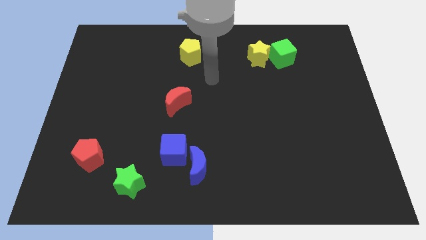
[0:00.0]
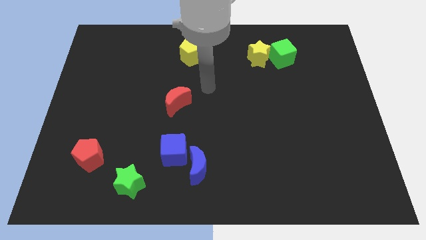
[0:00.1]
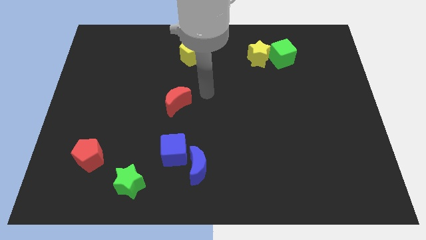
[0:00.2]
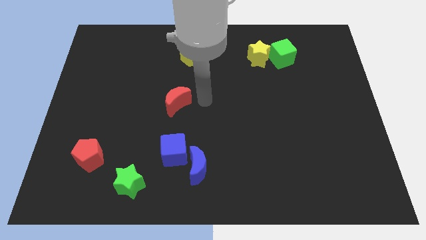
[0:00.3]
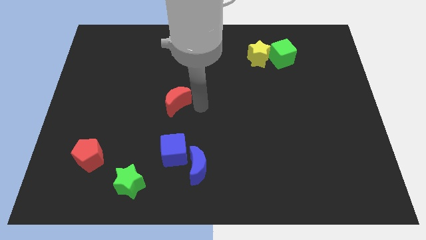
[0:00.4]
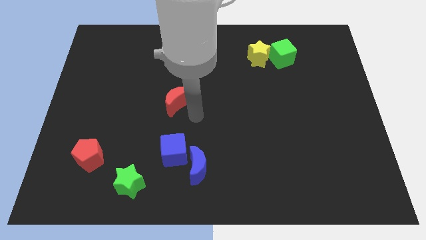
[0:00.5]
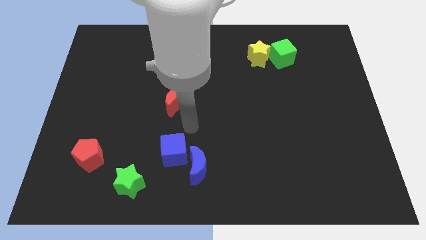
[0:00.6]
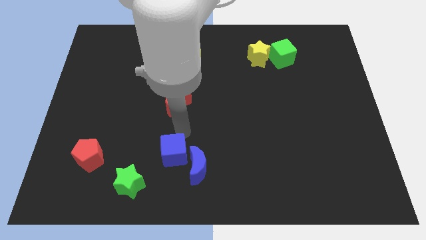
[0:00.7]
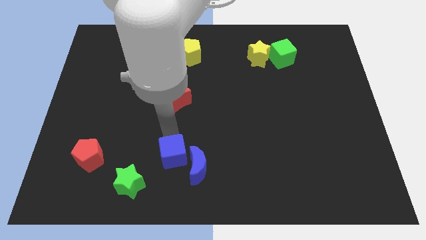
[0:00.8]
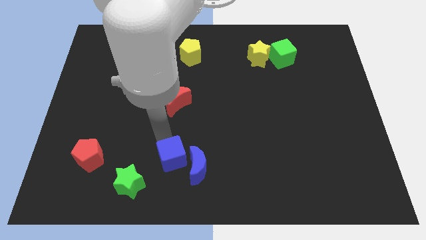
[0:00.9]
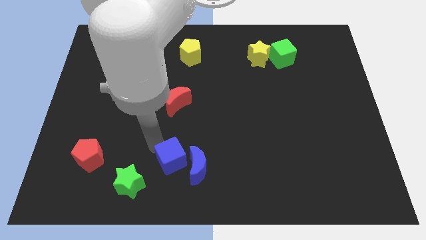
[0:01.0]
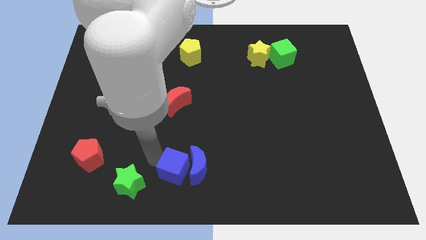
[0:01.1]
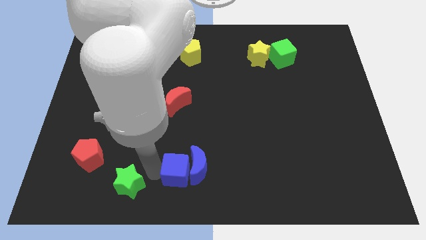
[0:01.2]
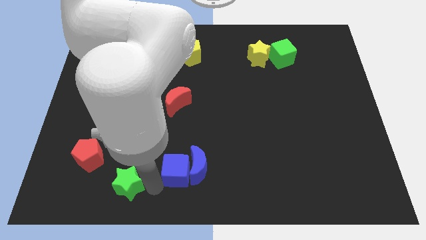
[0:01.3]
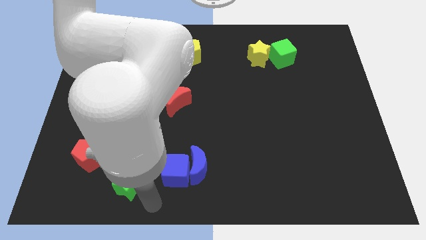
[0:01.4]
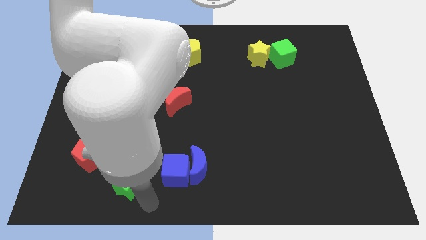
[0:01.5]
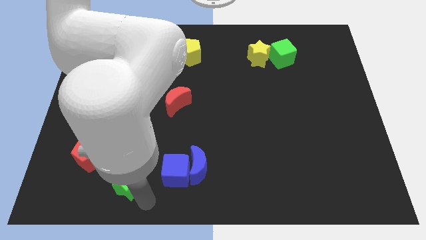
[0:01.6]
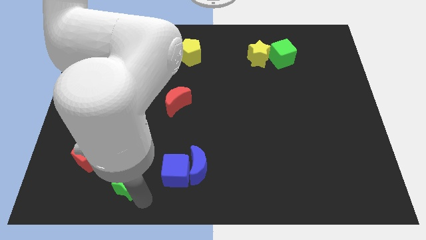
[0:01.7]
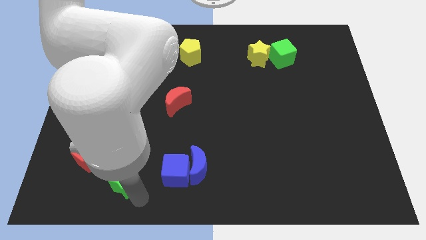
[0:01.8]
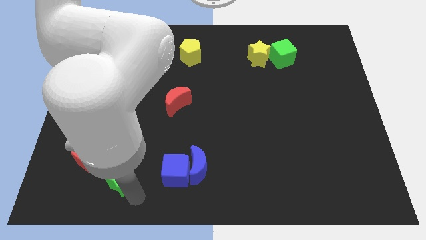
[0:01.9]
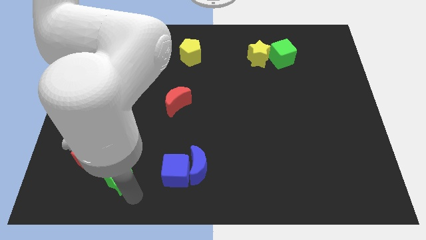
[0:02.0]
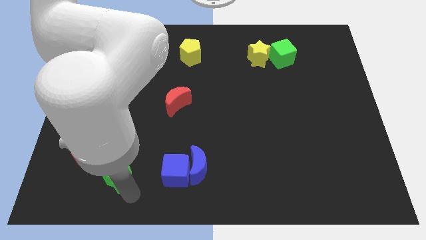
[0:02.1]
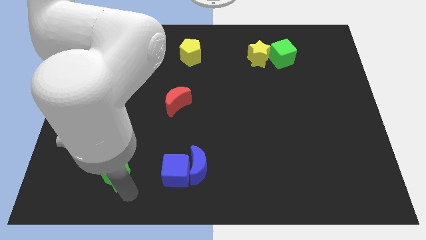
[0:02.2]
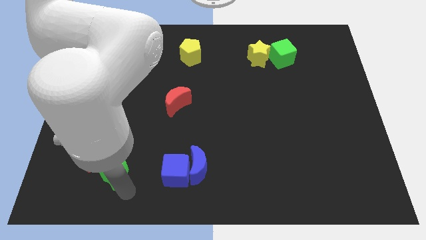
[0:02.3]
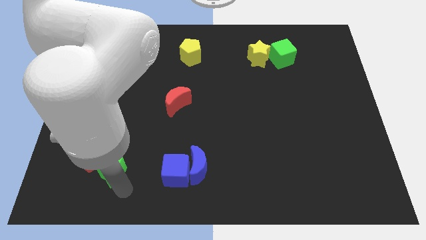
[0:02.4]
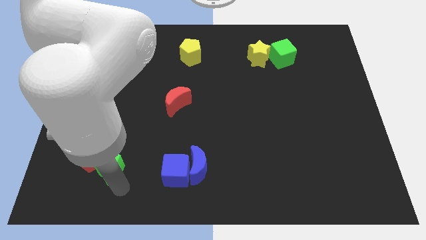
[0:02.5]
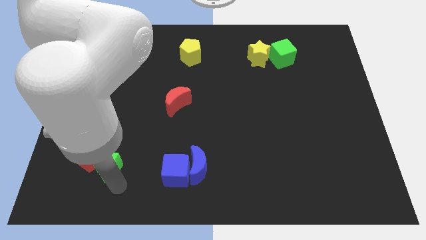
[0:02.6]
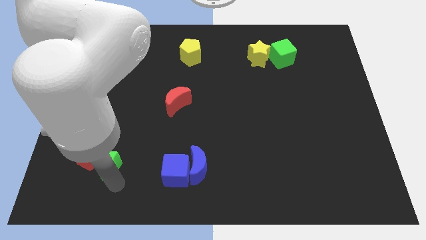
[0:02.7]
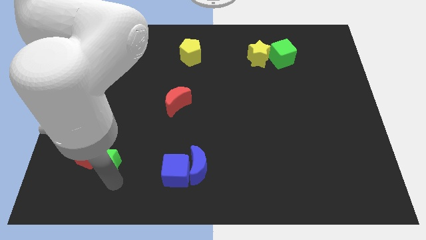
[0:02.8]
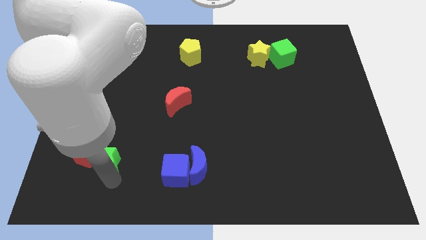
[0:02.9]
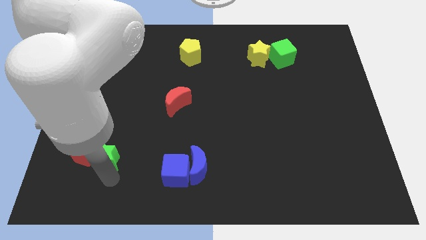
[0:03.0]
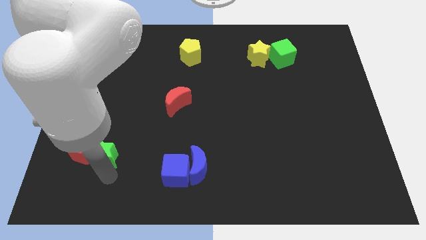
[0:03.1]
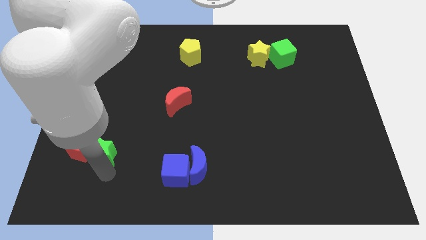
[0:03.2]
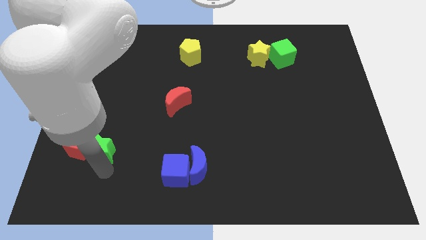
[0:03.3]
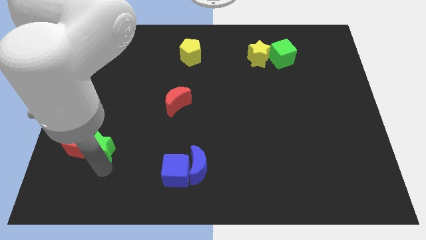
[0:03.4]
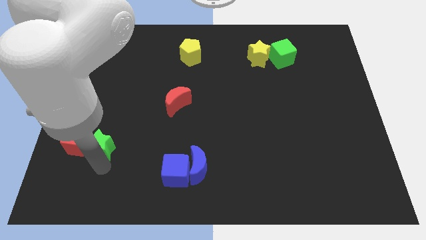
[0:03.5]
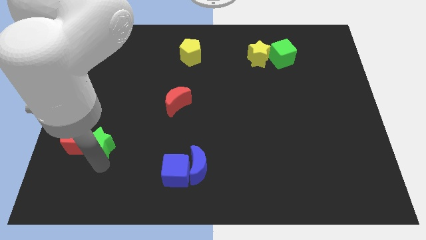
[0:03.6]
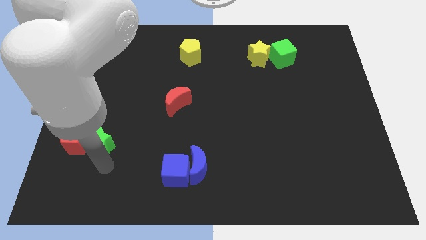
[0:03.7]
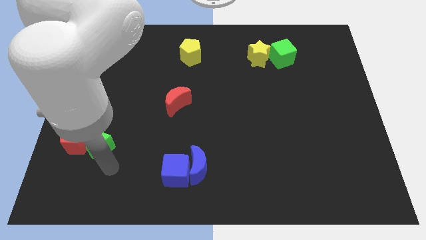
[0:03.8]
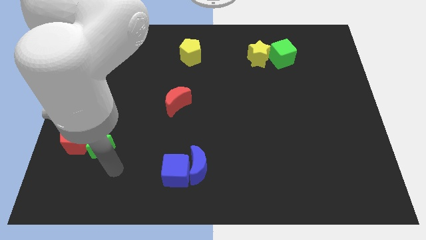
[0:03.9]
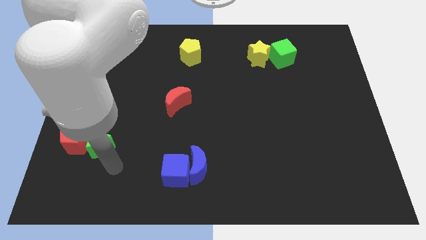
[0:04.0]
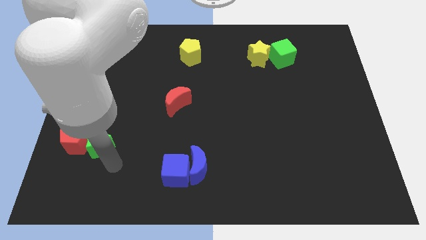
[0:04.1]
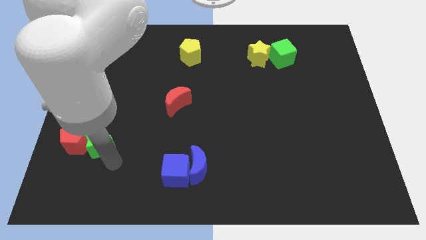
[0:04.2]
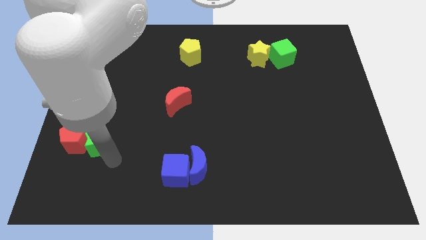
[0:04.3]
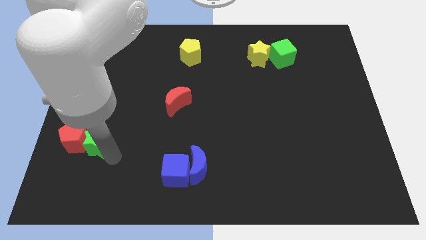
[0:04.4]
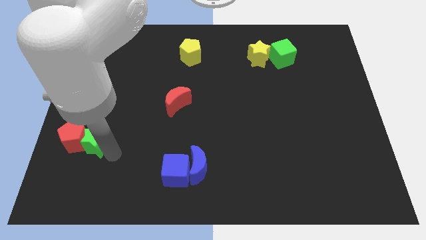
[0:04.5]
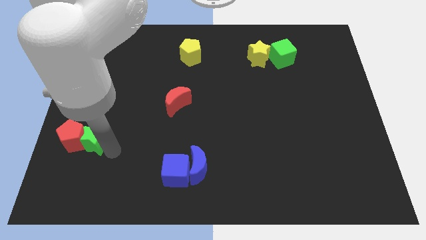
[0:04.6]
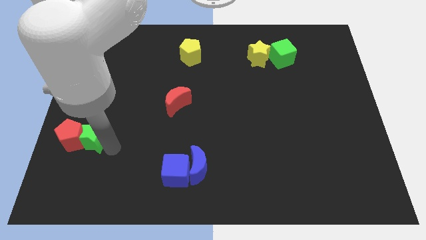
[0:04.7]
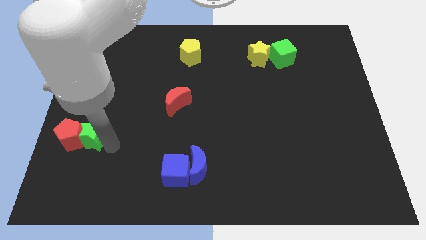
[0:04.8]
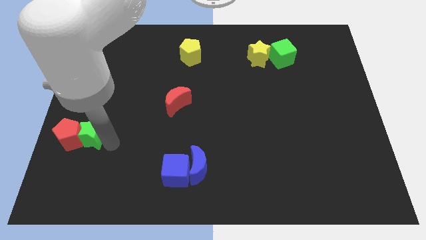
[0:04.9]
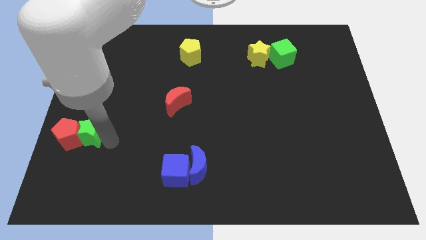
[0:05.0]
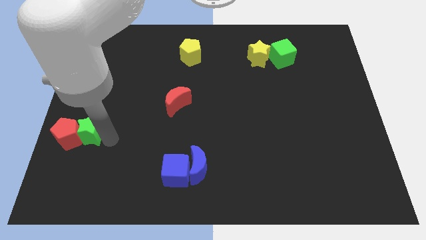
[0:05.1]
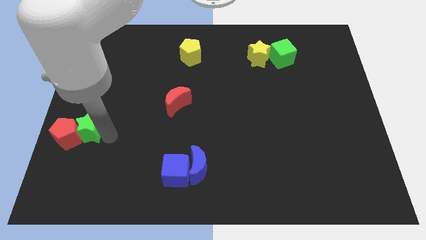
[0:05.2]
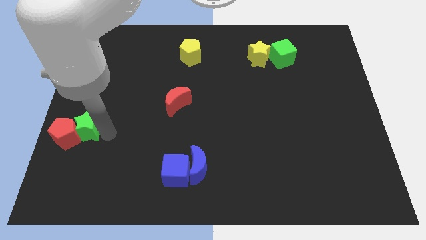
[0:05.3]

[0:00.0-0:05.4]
push the green star to the center left

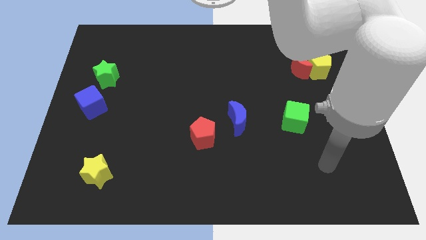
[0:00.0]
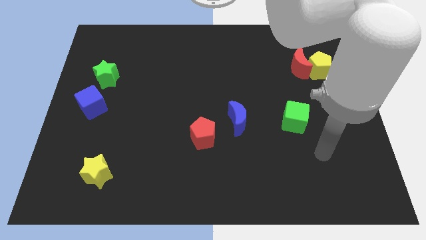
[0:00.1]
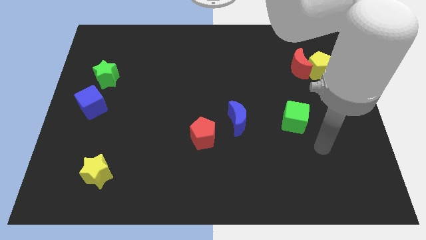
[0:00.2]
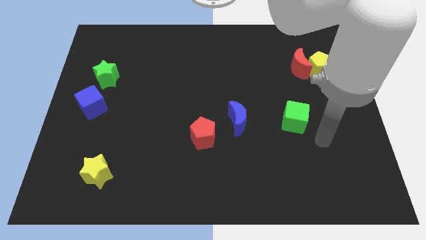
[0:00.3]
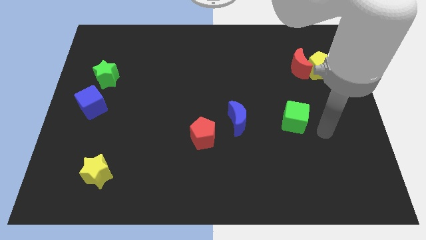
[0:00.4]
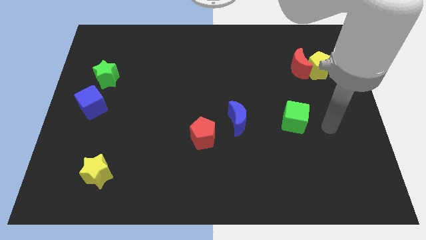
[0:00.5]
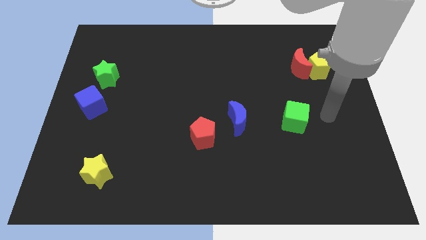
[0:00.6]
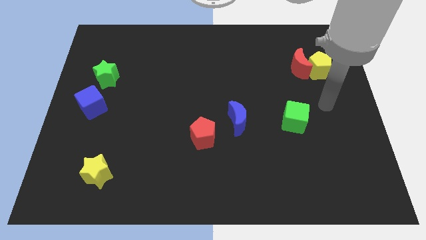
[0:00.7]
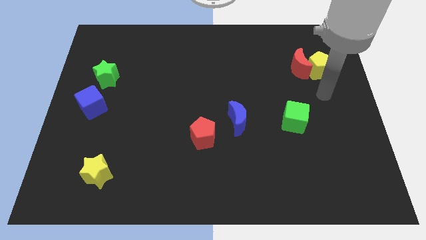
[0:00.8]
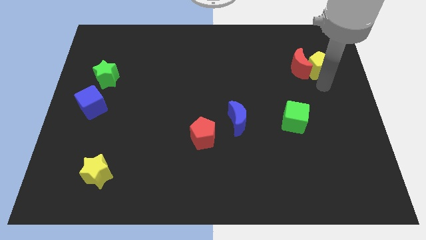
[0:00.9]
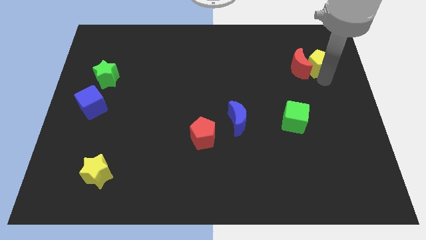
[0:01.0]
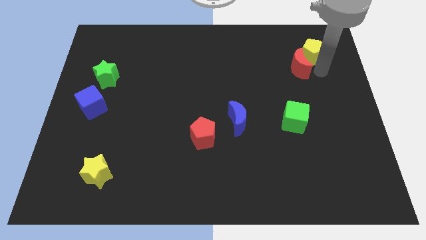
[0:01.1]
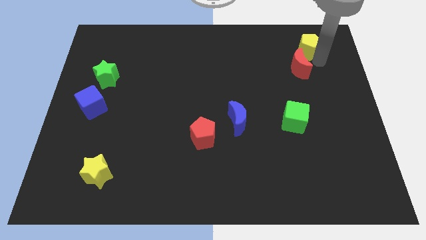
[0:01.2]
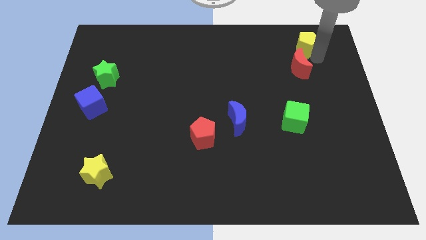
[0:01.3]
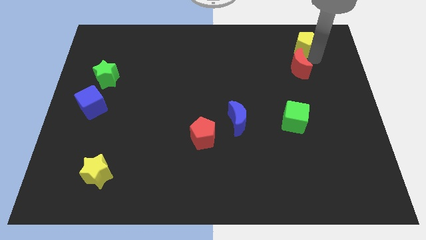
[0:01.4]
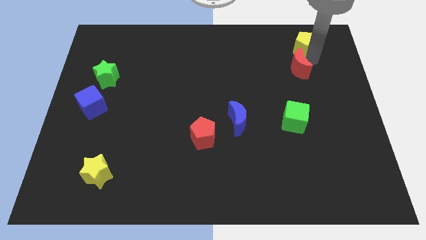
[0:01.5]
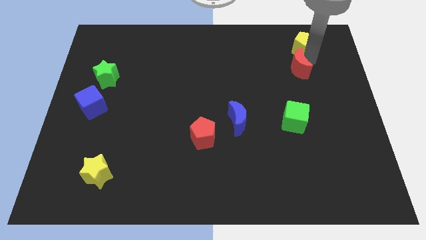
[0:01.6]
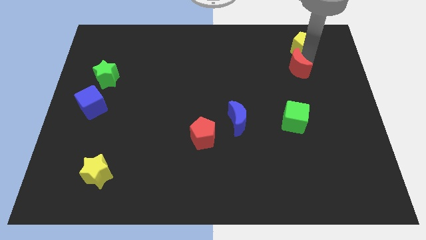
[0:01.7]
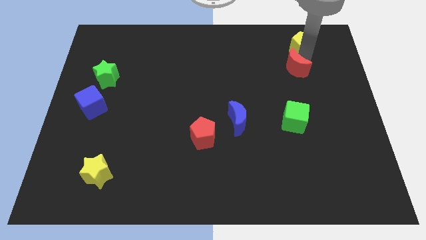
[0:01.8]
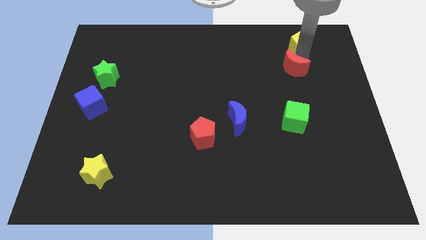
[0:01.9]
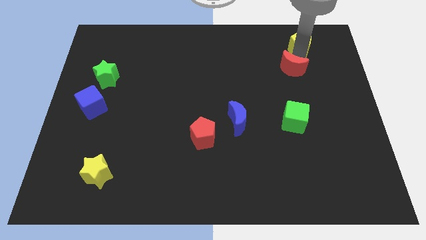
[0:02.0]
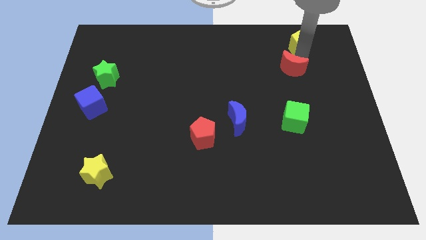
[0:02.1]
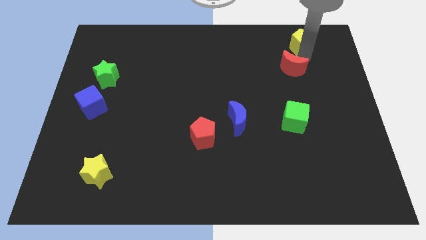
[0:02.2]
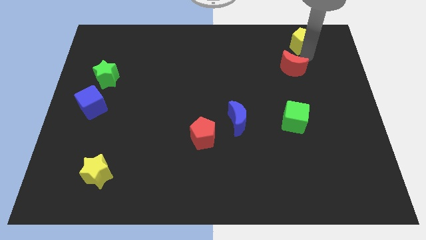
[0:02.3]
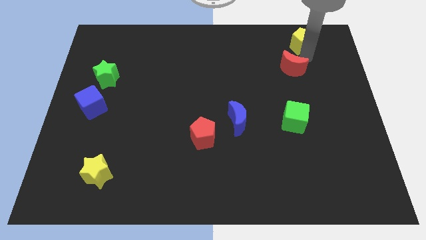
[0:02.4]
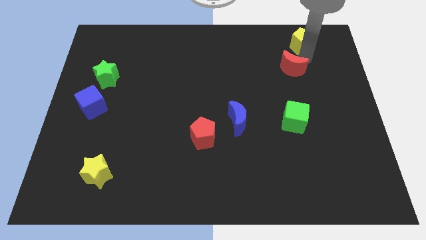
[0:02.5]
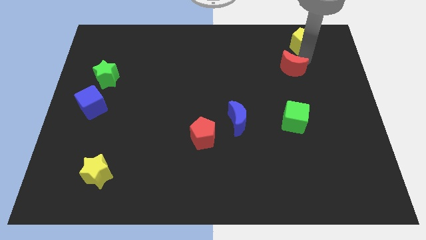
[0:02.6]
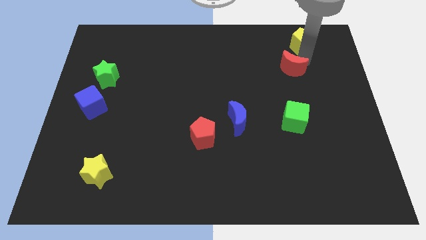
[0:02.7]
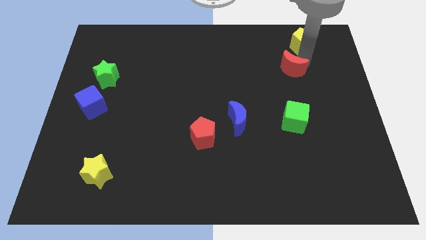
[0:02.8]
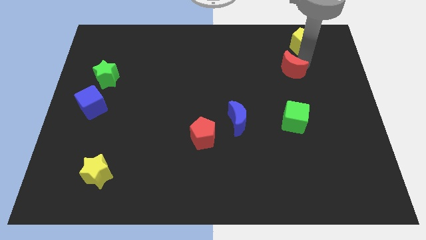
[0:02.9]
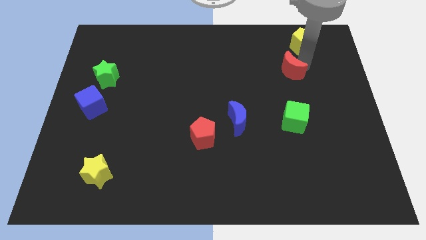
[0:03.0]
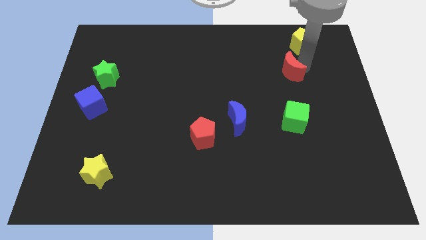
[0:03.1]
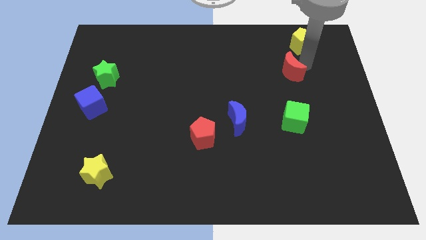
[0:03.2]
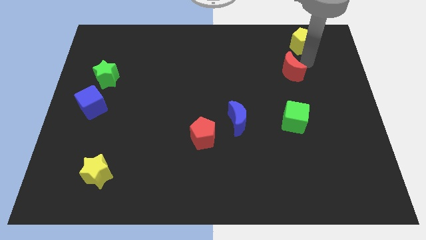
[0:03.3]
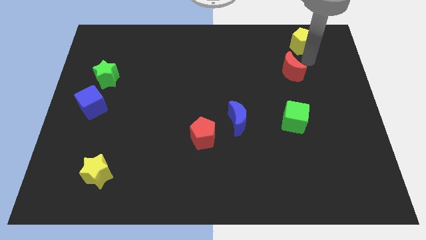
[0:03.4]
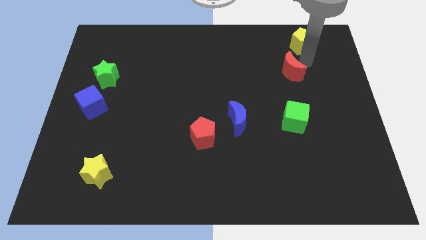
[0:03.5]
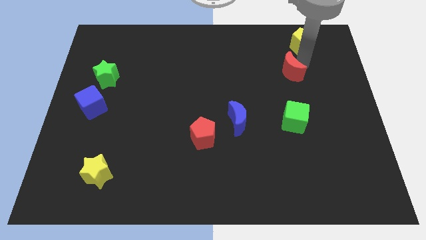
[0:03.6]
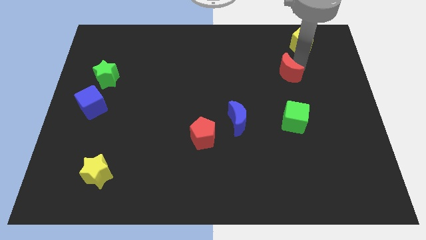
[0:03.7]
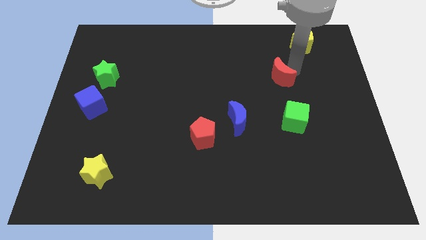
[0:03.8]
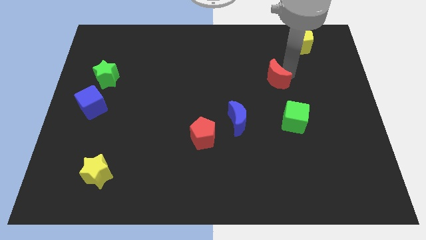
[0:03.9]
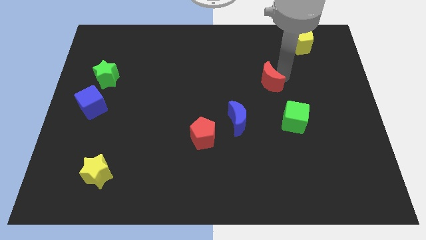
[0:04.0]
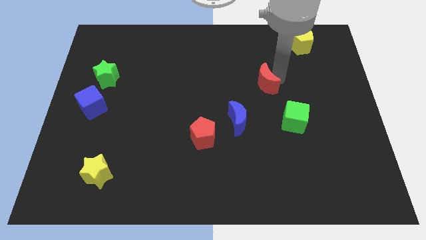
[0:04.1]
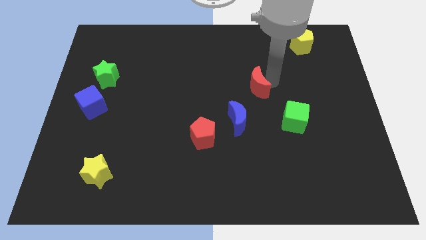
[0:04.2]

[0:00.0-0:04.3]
move the red moon to the middle
